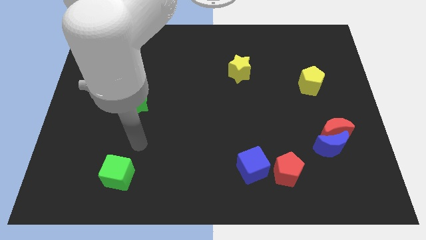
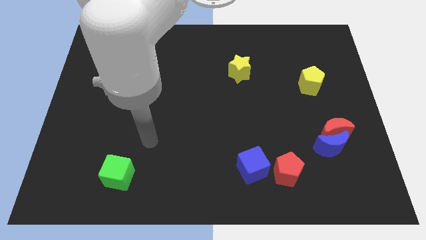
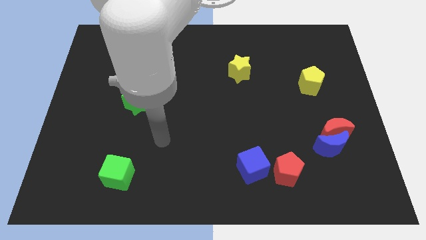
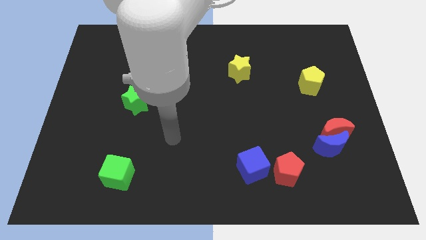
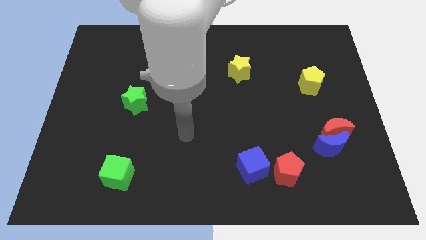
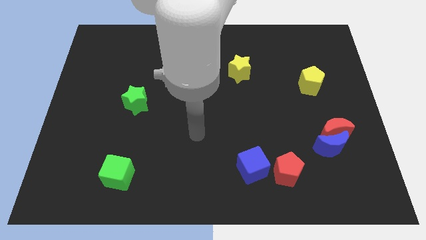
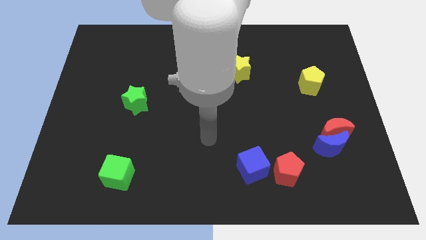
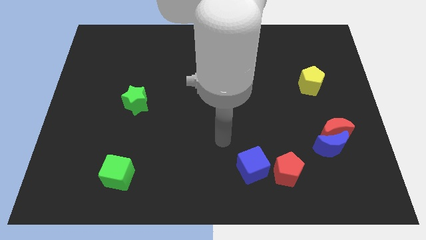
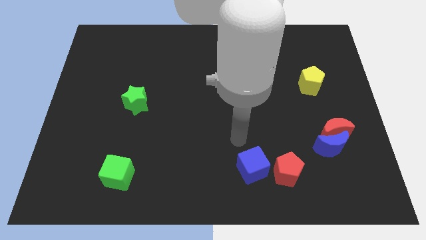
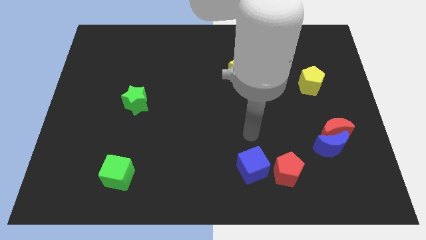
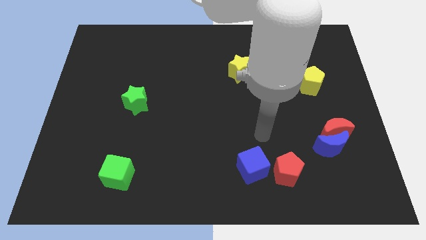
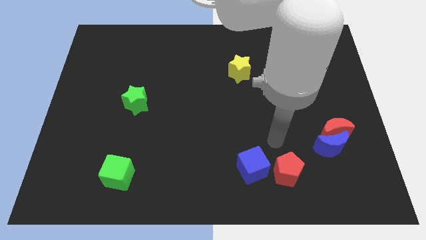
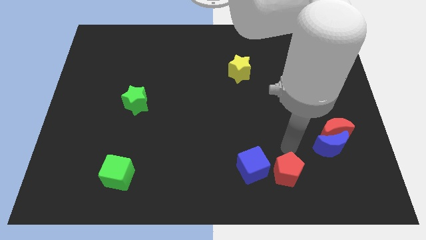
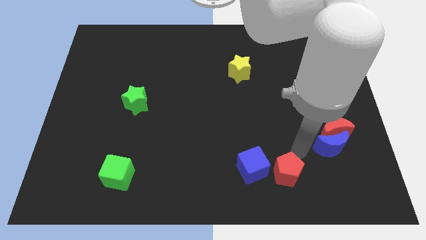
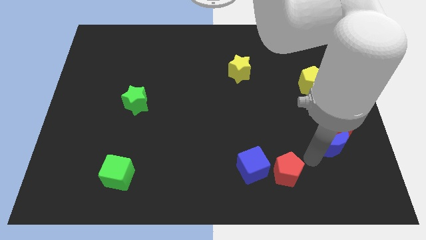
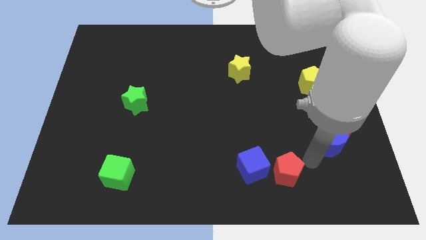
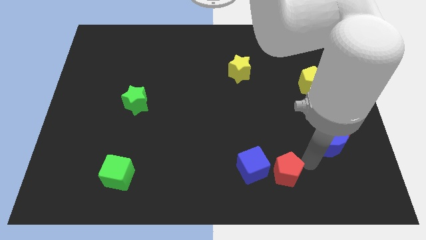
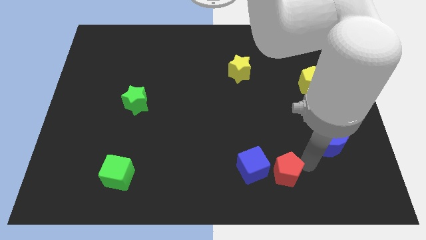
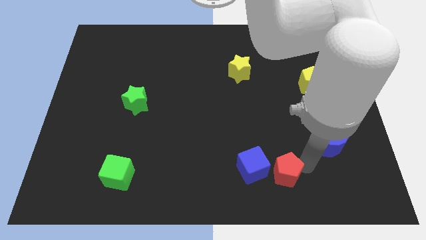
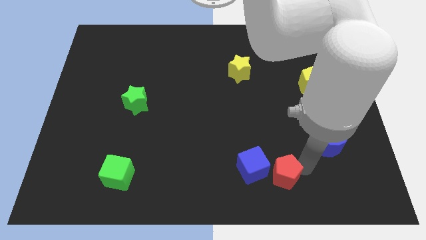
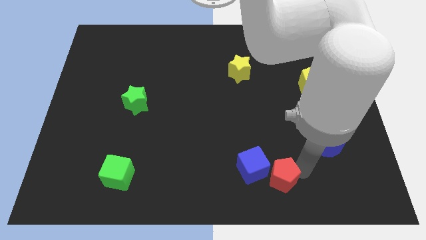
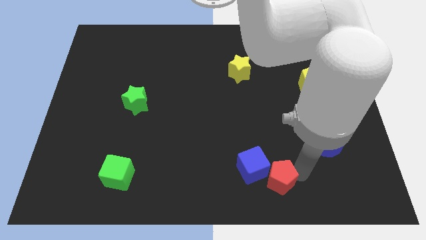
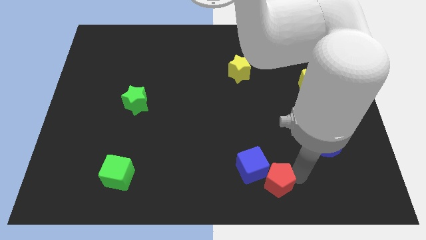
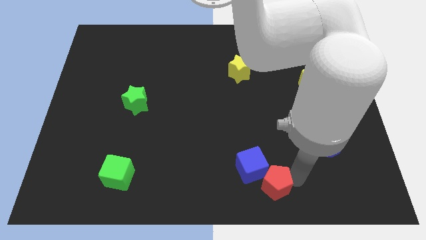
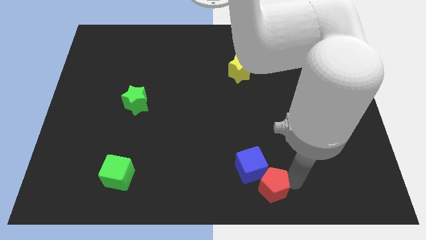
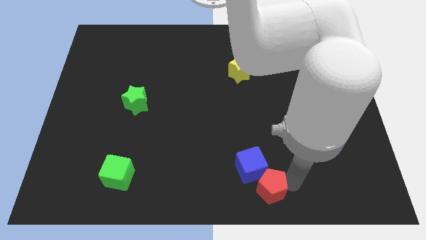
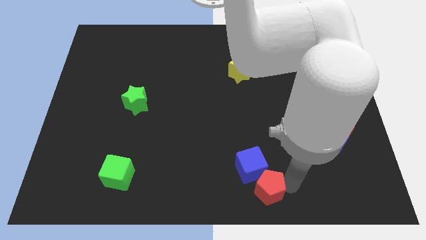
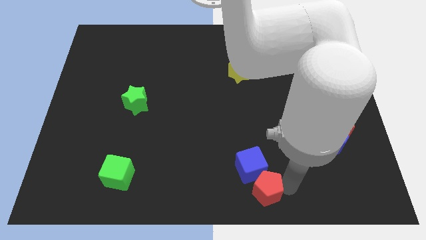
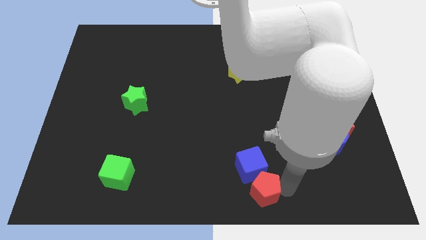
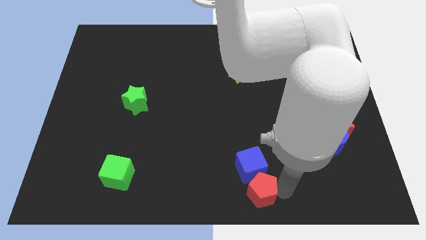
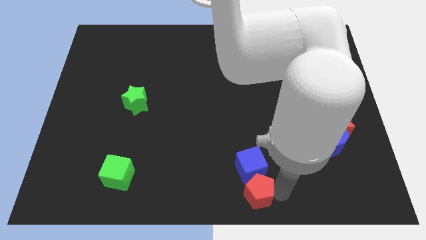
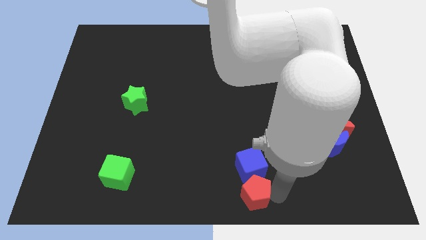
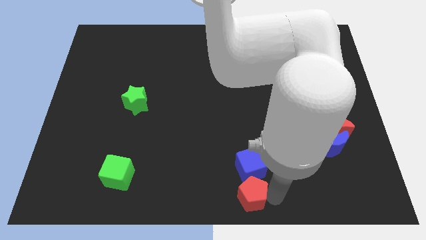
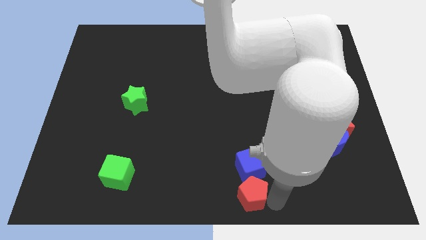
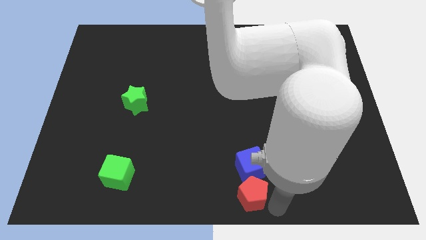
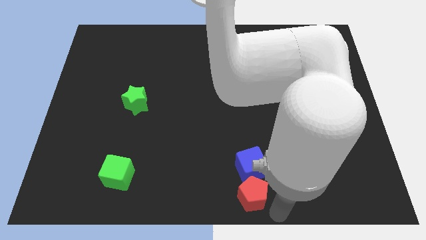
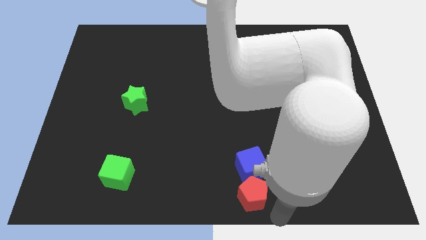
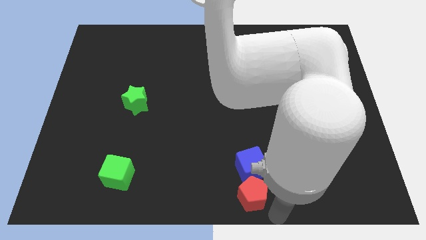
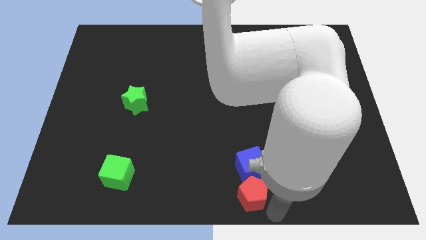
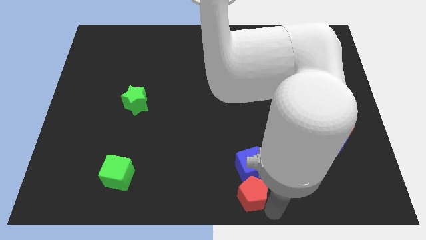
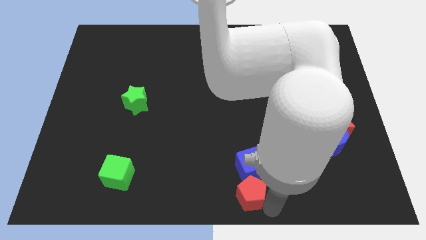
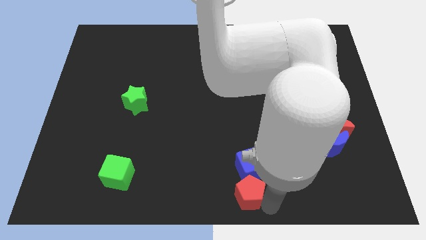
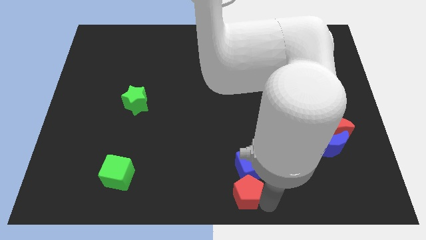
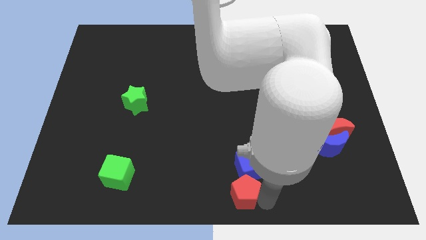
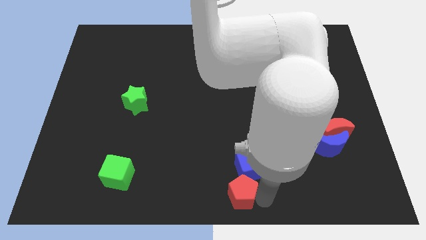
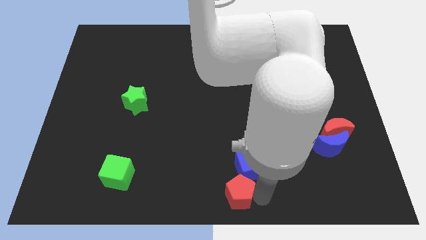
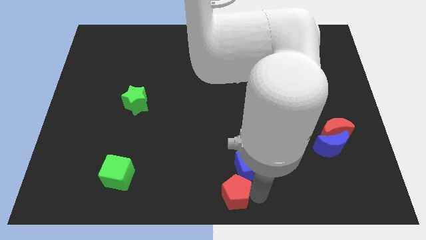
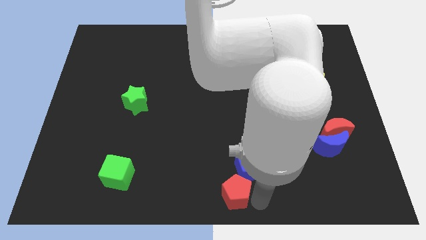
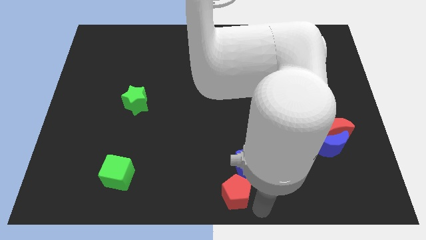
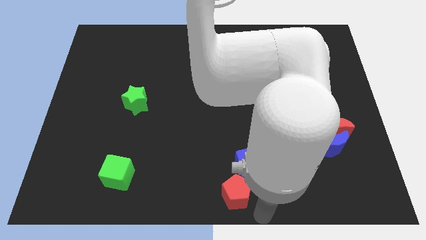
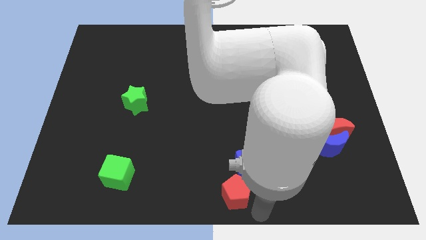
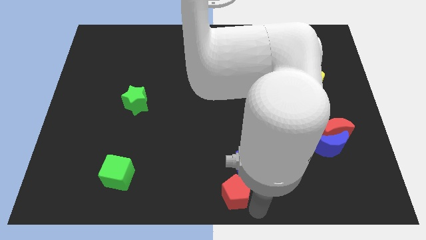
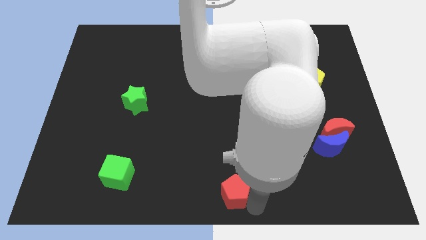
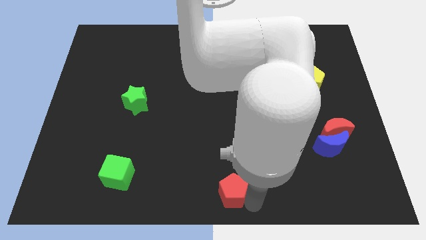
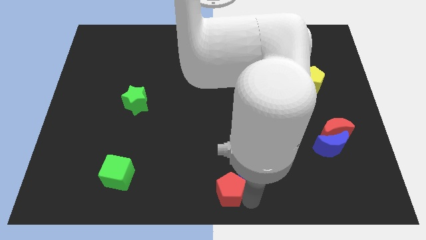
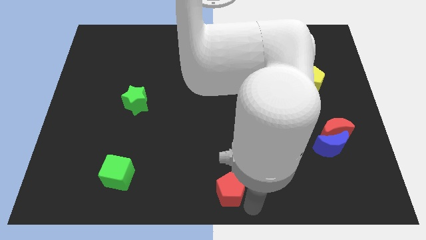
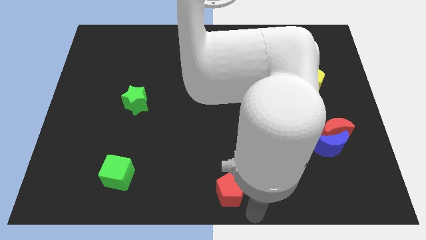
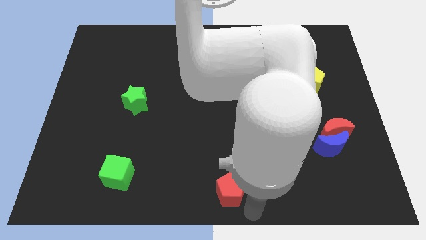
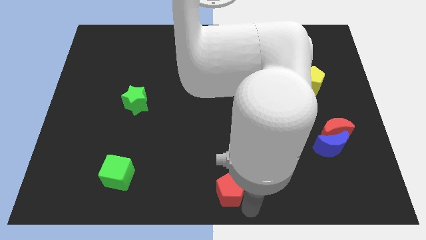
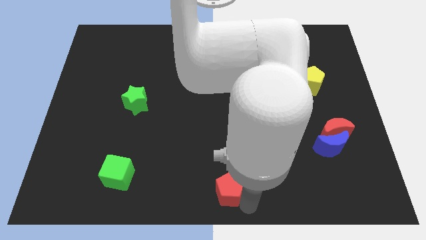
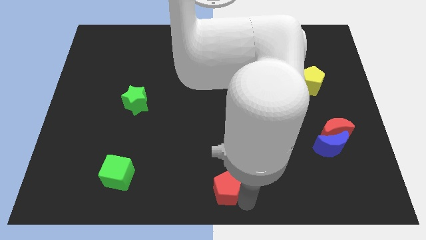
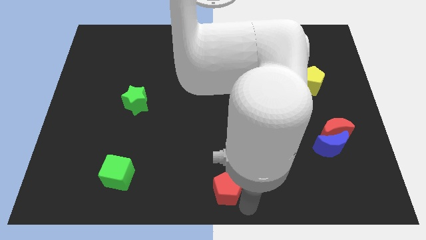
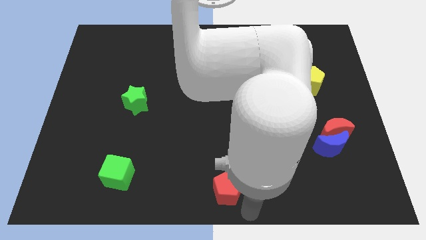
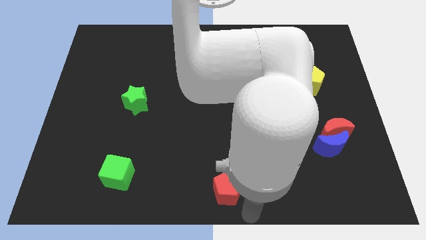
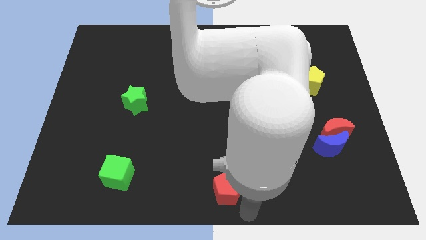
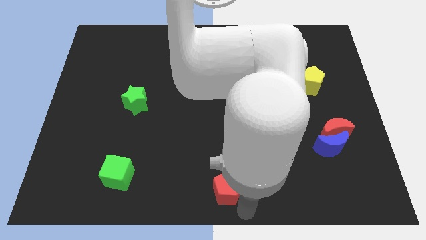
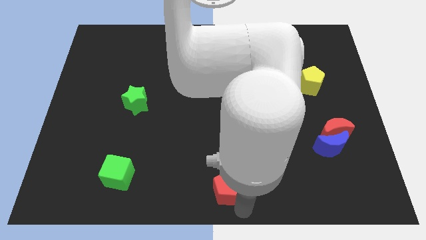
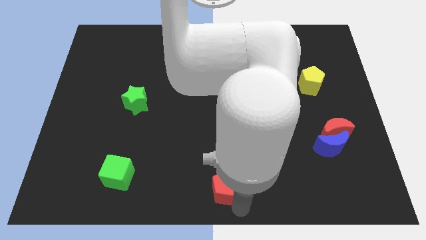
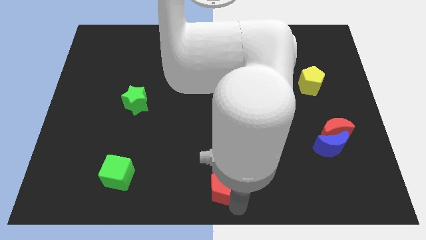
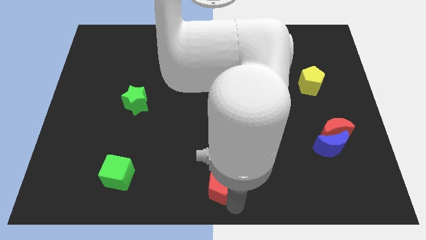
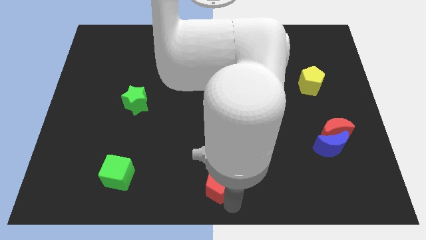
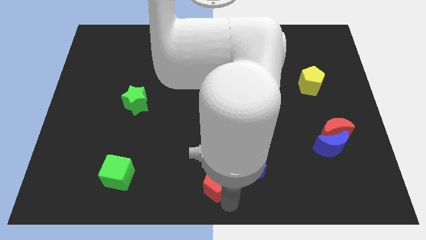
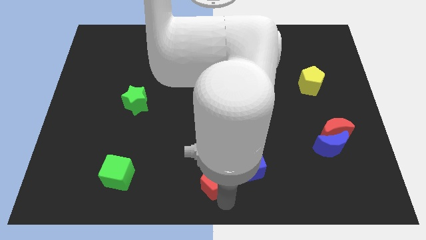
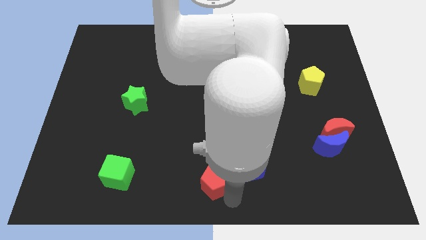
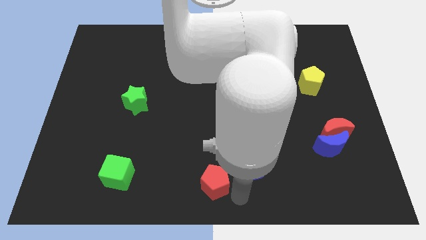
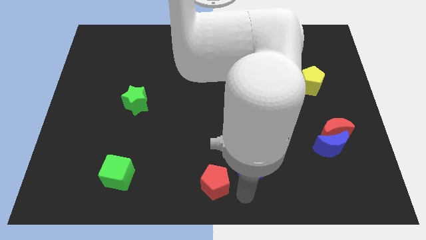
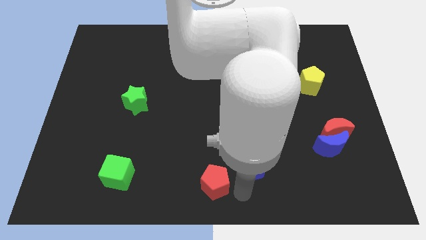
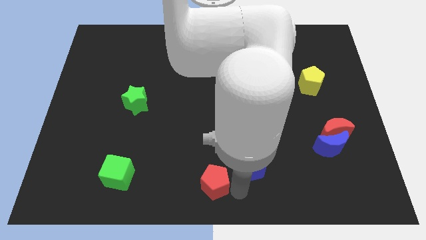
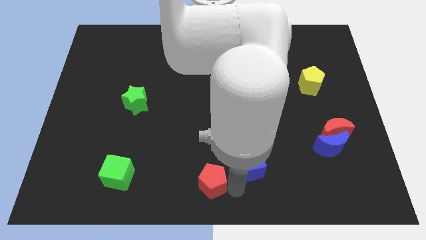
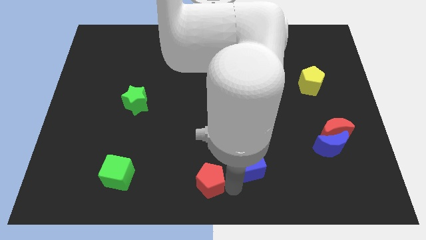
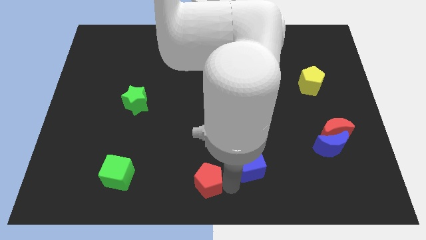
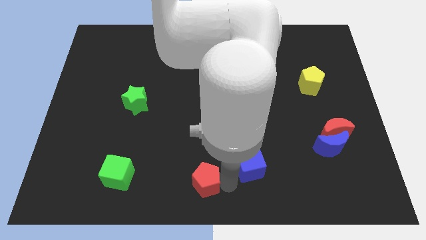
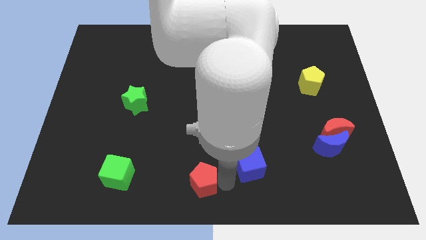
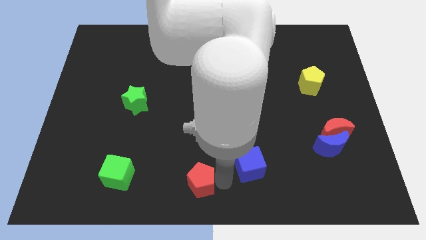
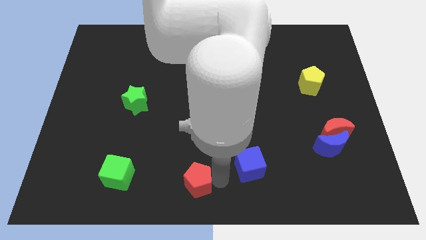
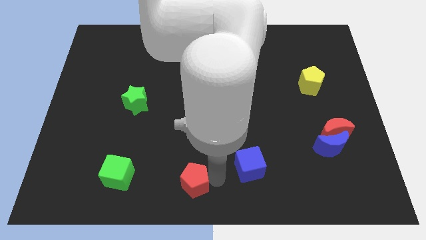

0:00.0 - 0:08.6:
push the red pentagon to the right side of the green cube
